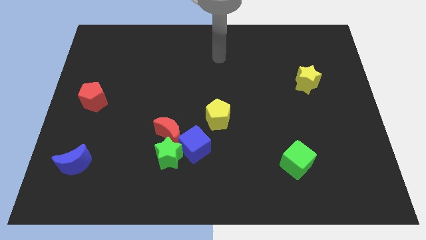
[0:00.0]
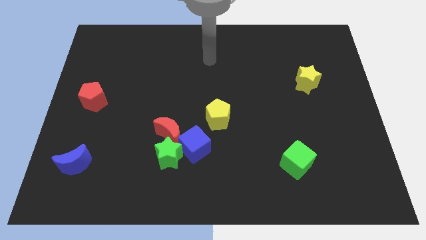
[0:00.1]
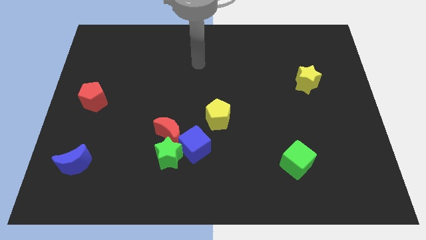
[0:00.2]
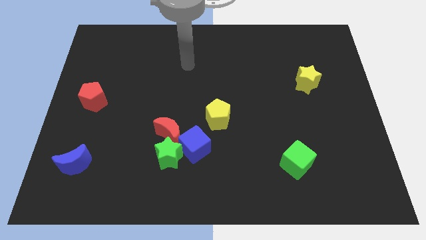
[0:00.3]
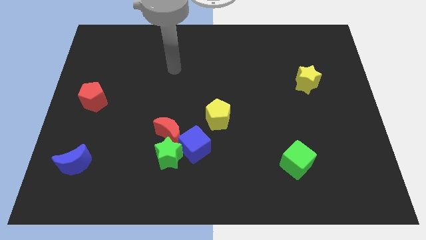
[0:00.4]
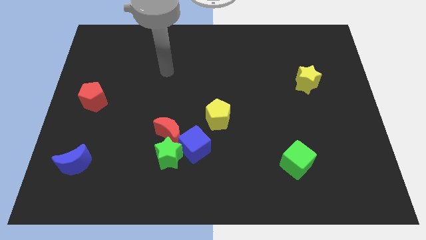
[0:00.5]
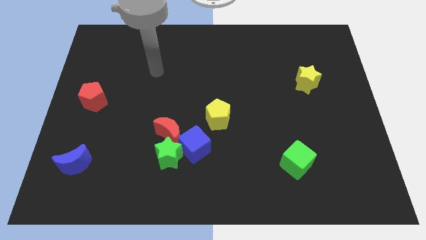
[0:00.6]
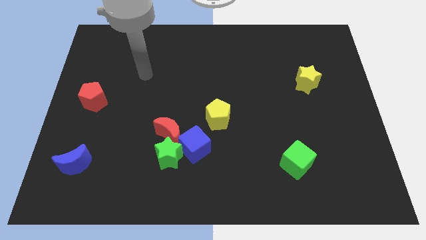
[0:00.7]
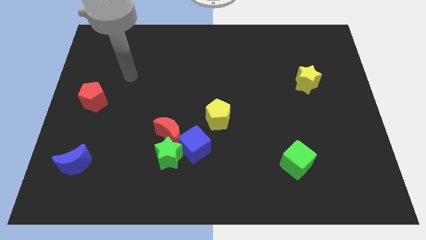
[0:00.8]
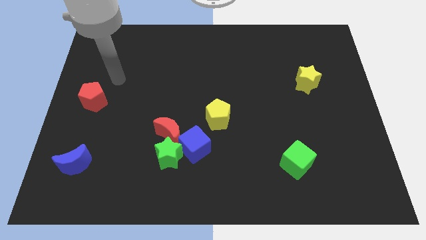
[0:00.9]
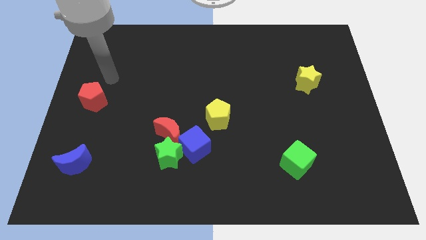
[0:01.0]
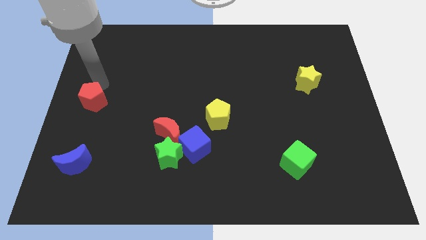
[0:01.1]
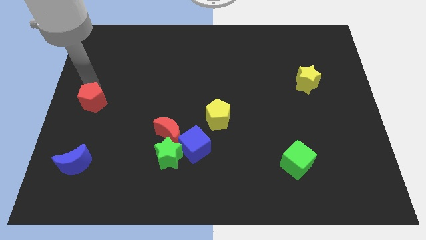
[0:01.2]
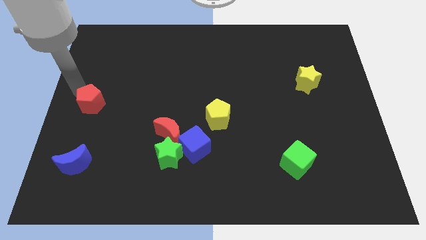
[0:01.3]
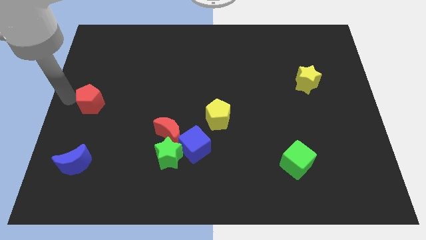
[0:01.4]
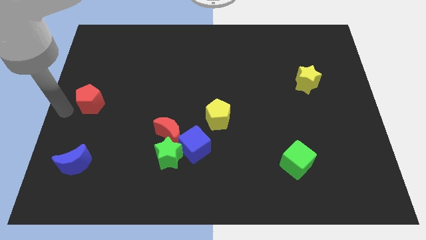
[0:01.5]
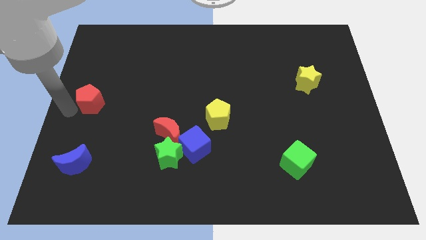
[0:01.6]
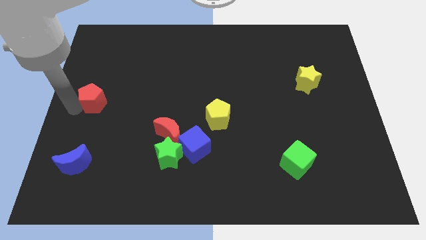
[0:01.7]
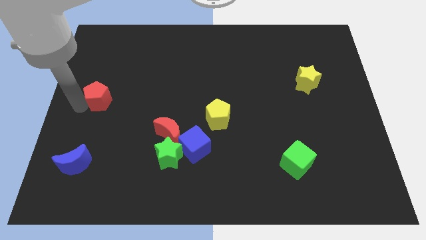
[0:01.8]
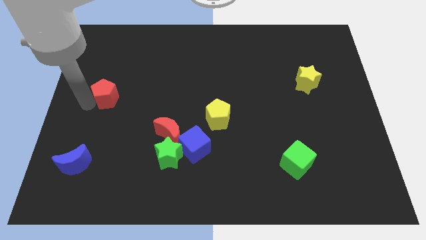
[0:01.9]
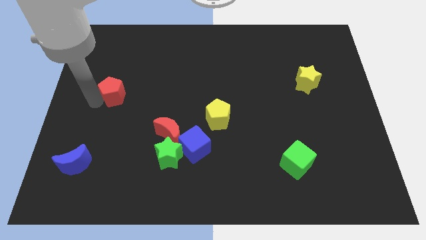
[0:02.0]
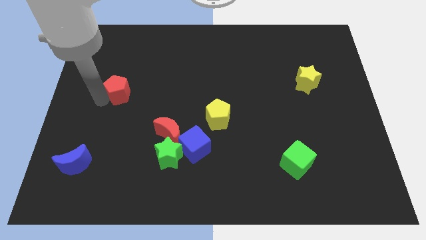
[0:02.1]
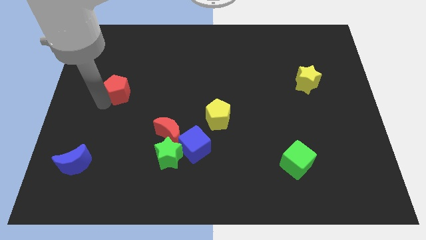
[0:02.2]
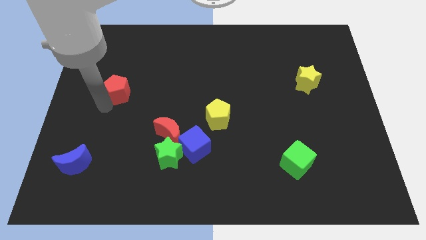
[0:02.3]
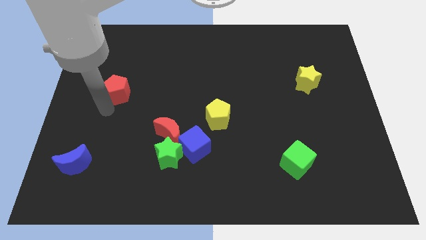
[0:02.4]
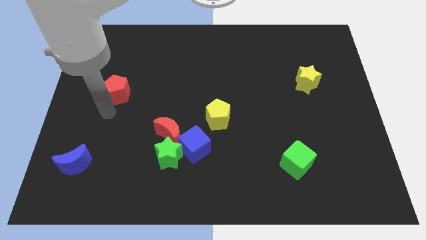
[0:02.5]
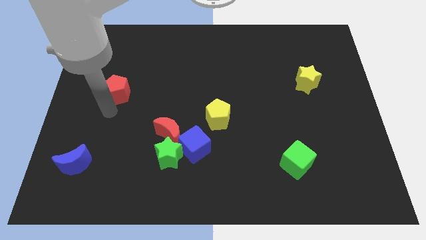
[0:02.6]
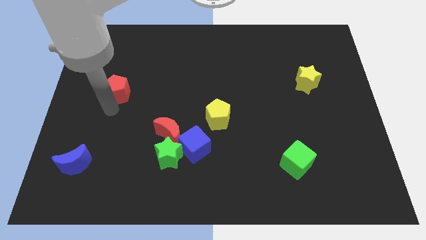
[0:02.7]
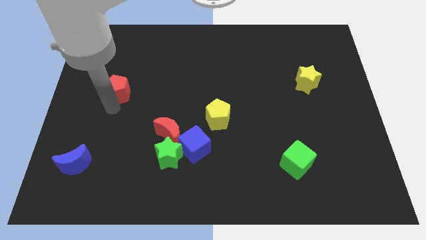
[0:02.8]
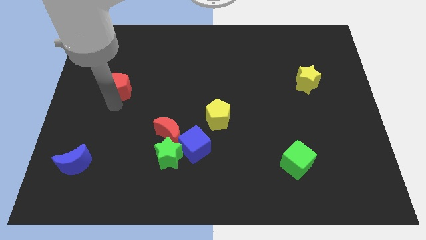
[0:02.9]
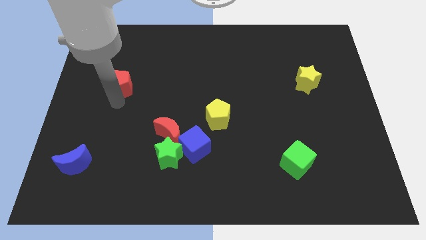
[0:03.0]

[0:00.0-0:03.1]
push the red pentagon up and right diagonally somewhat

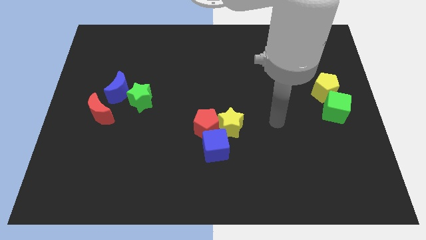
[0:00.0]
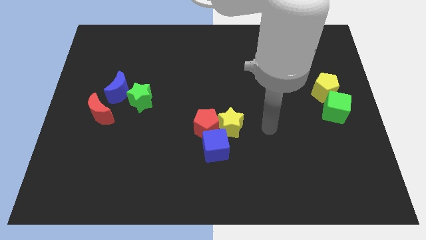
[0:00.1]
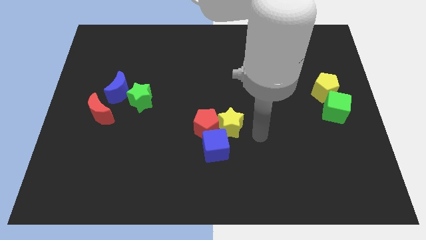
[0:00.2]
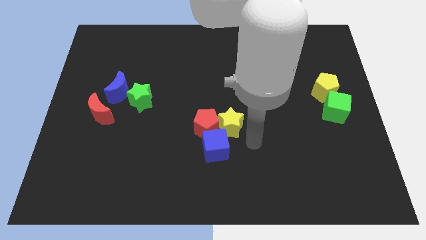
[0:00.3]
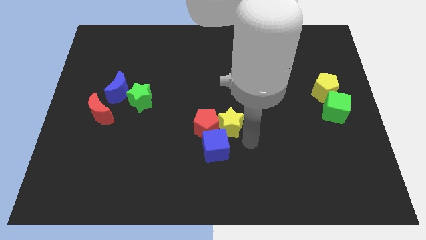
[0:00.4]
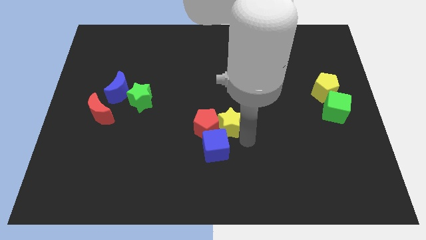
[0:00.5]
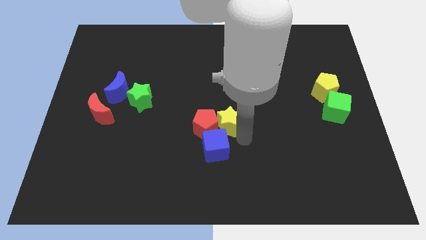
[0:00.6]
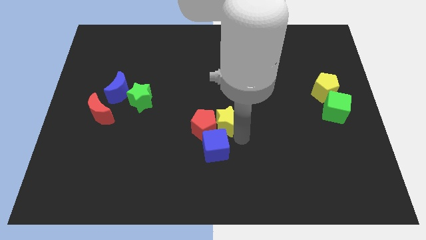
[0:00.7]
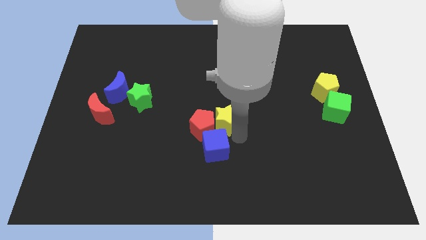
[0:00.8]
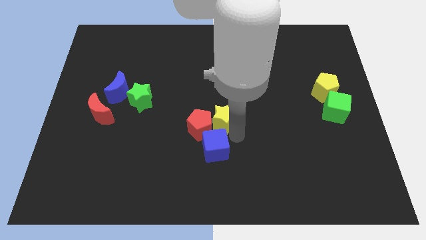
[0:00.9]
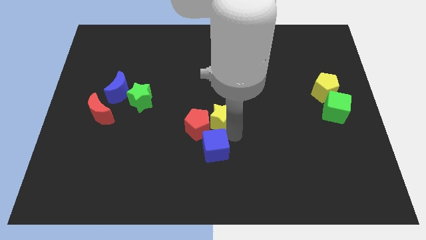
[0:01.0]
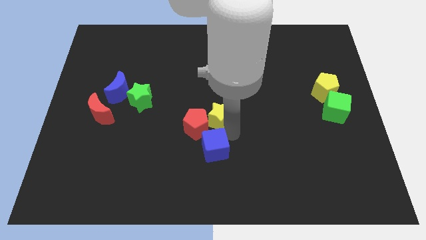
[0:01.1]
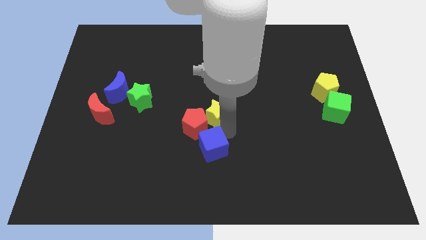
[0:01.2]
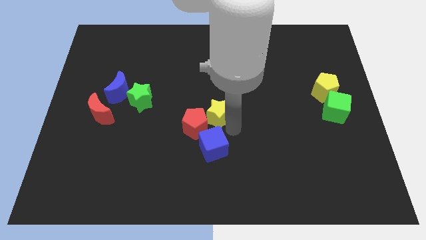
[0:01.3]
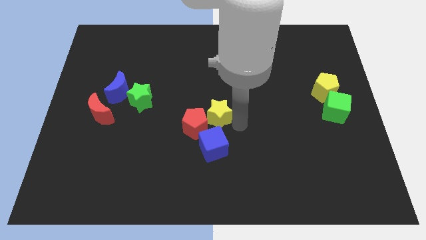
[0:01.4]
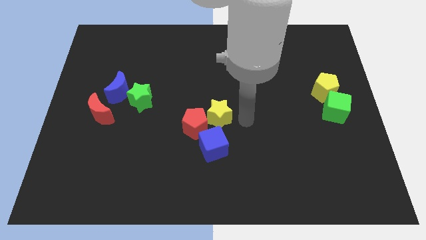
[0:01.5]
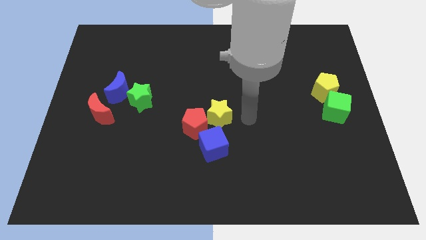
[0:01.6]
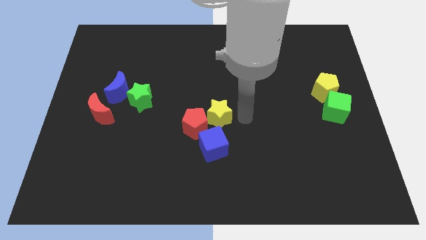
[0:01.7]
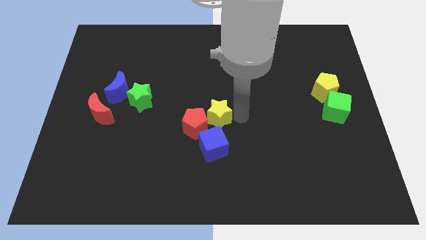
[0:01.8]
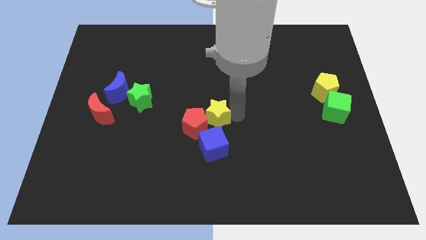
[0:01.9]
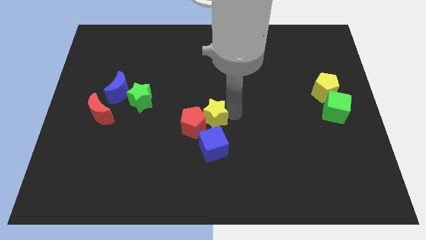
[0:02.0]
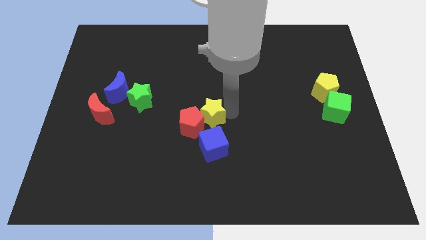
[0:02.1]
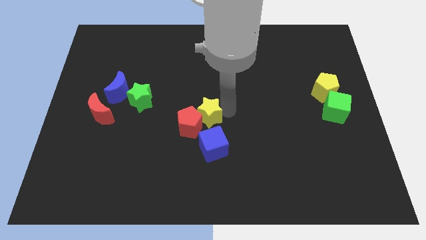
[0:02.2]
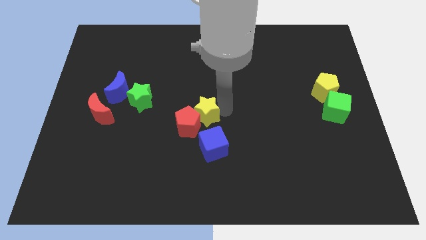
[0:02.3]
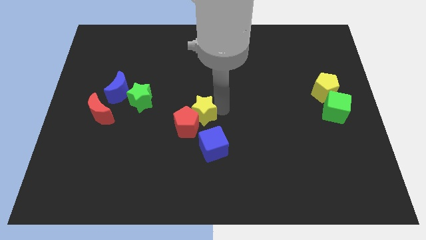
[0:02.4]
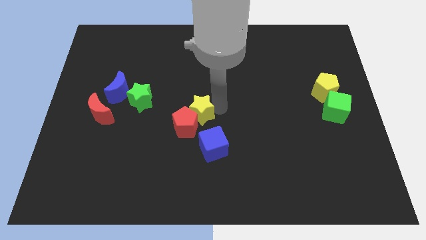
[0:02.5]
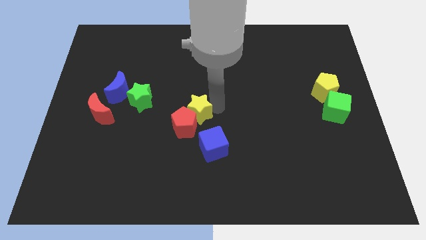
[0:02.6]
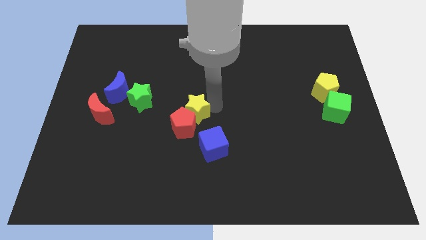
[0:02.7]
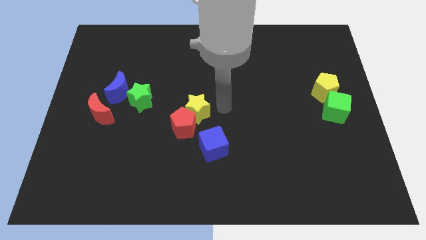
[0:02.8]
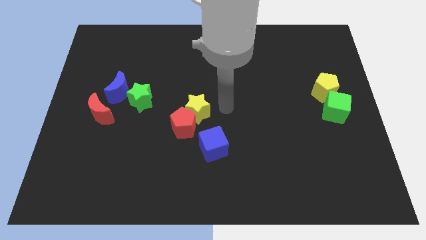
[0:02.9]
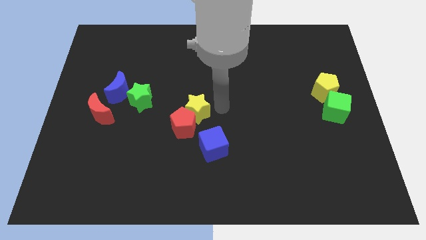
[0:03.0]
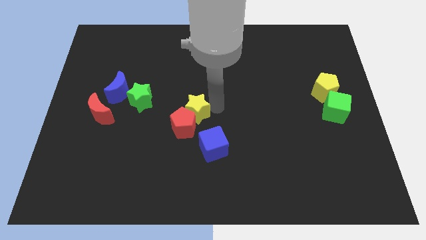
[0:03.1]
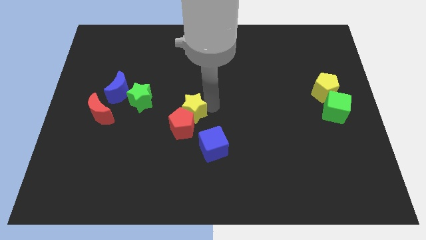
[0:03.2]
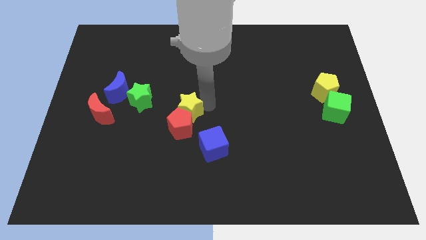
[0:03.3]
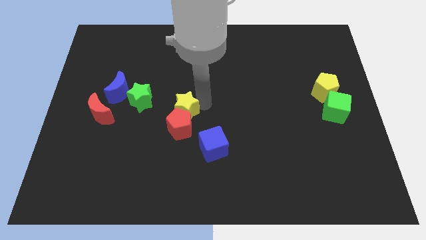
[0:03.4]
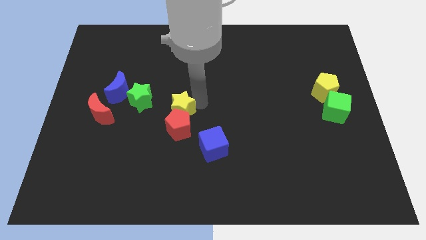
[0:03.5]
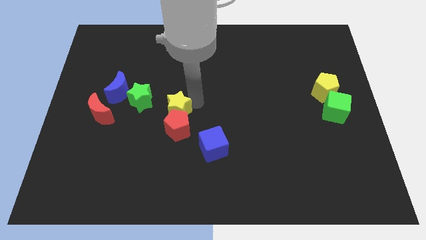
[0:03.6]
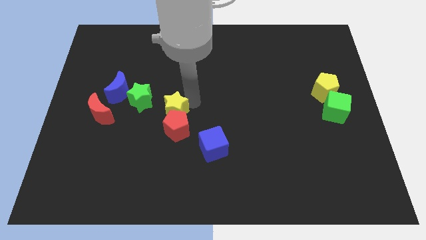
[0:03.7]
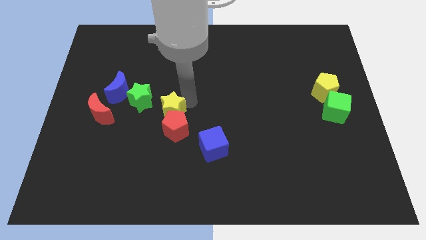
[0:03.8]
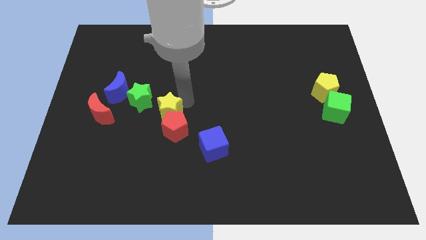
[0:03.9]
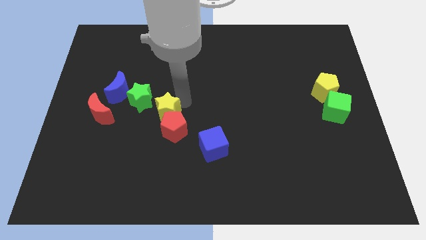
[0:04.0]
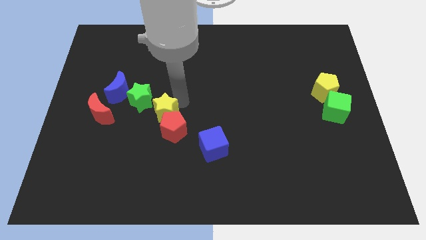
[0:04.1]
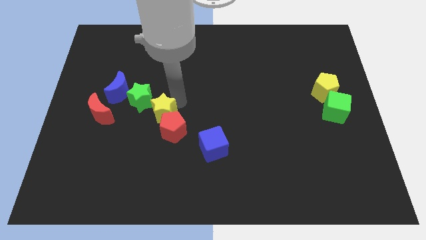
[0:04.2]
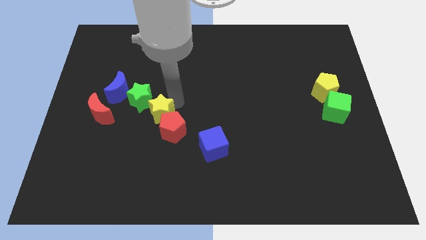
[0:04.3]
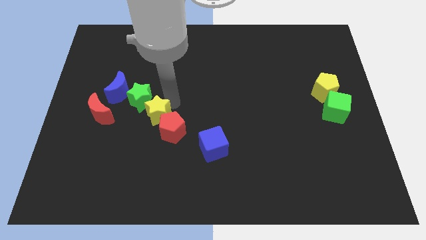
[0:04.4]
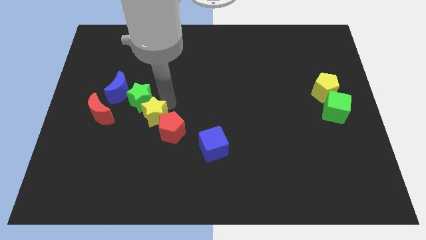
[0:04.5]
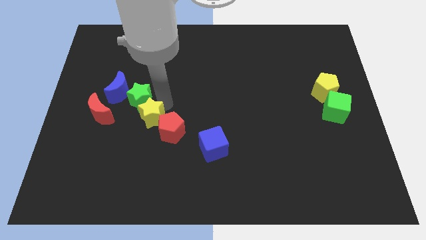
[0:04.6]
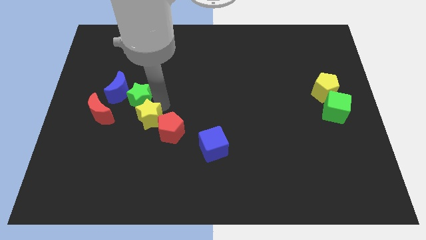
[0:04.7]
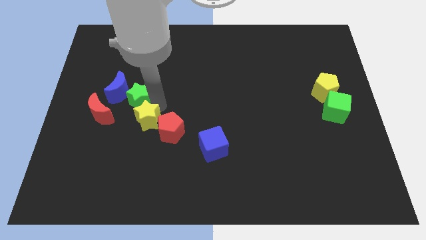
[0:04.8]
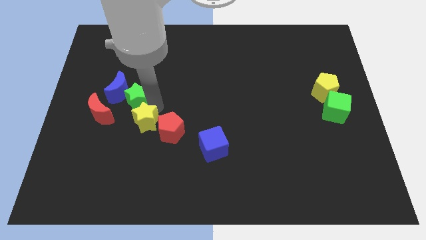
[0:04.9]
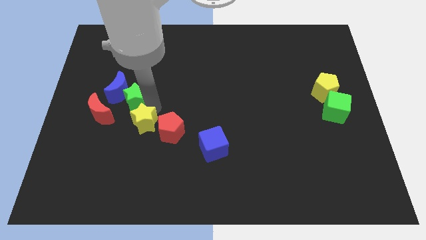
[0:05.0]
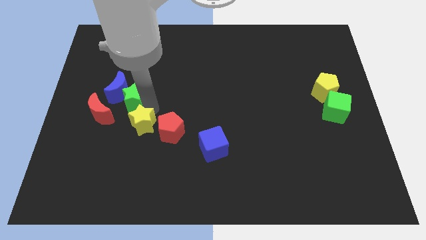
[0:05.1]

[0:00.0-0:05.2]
move the yellow star left
